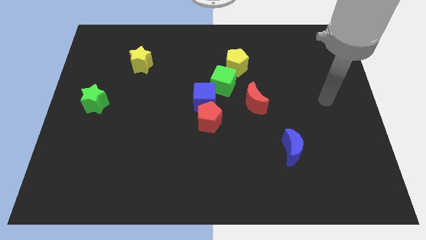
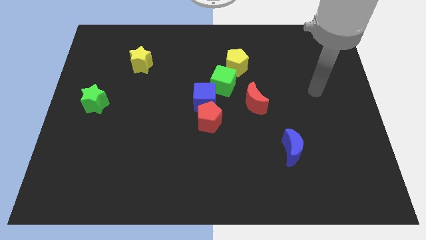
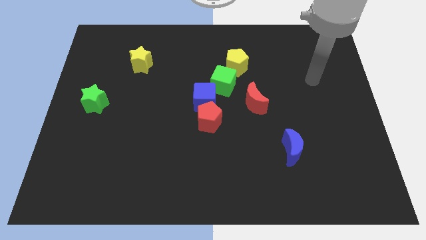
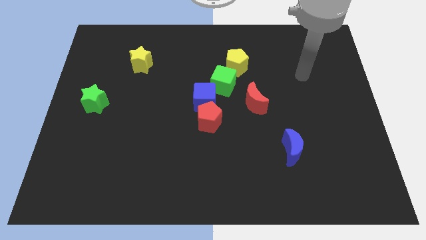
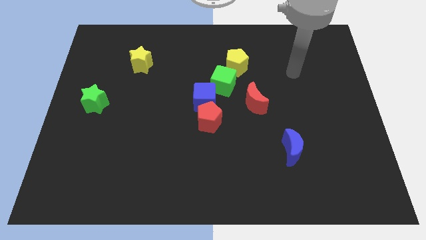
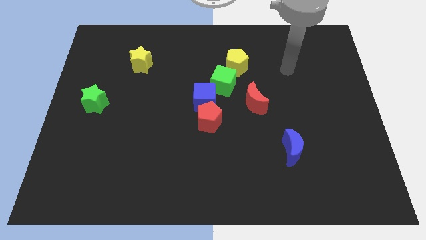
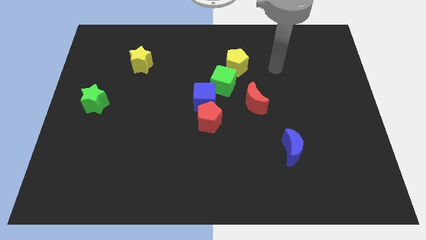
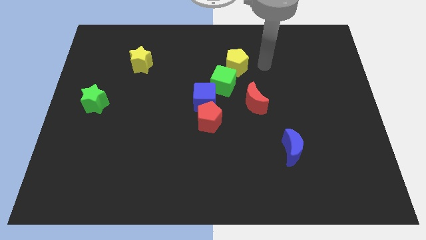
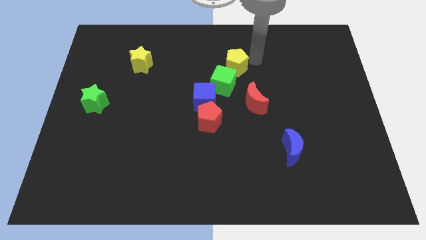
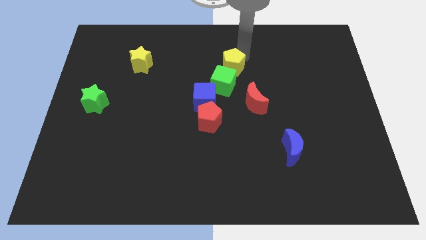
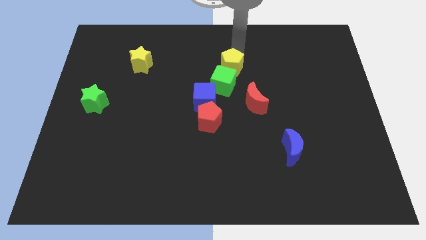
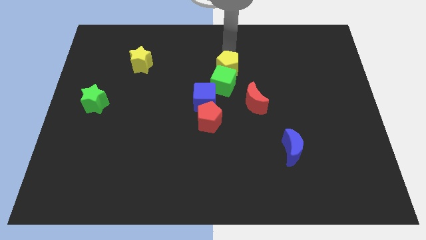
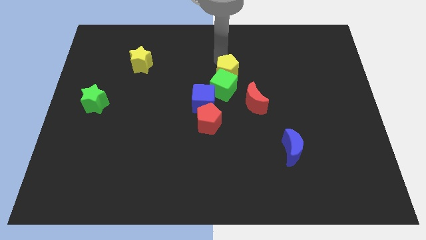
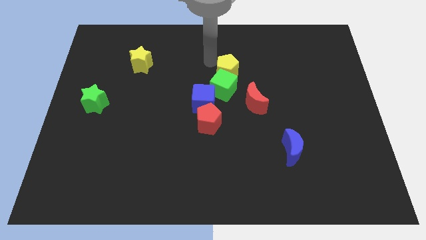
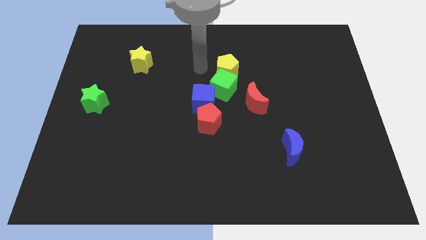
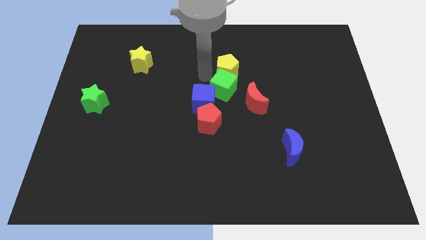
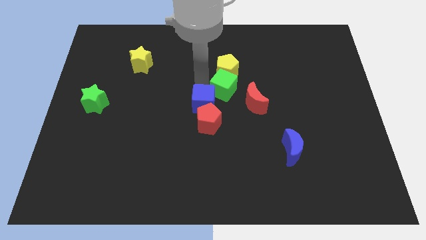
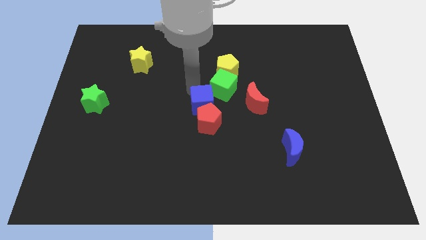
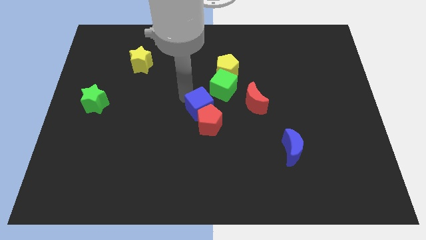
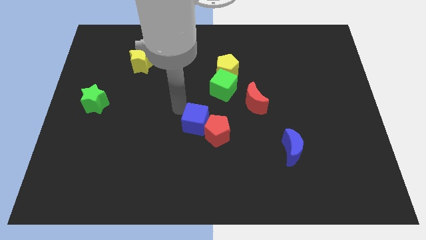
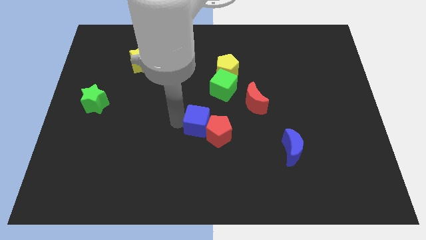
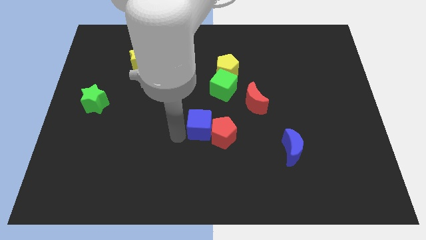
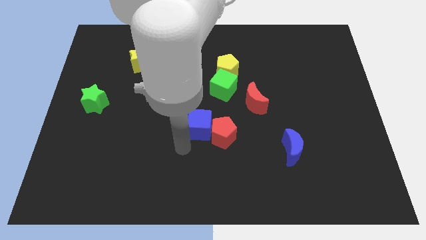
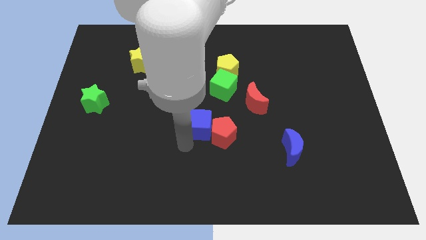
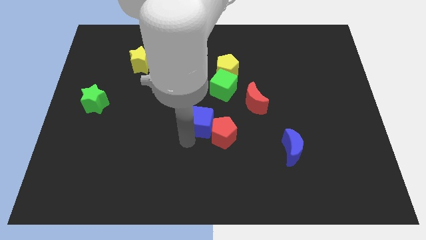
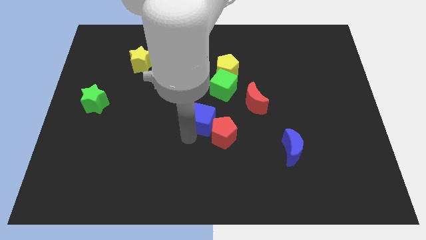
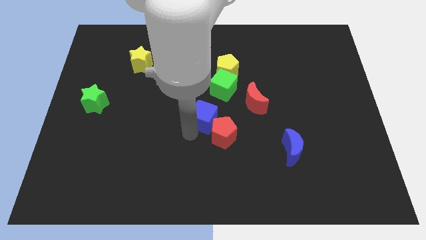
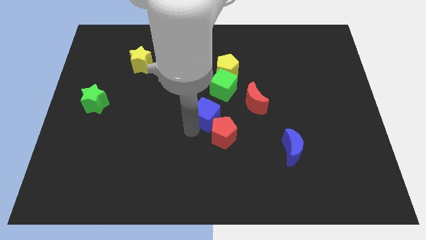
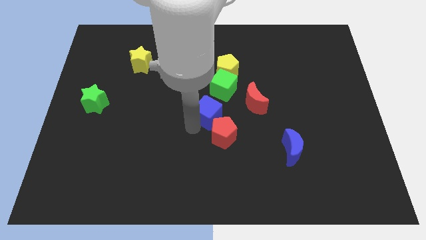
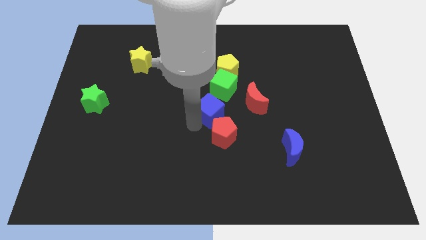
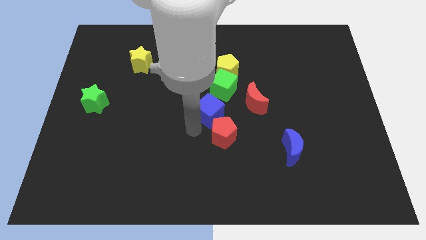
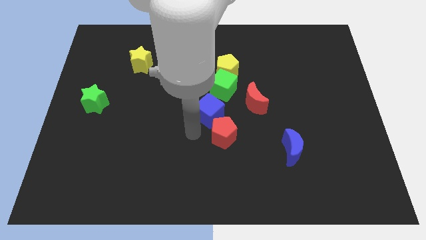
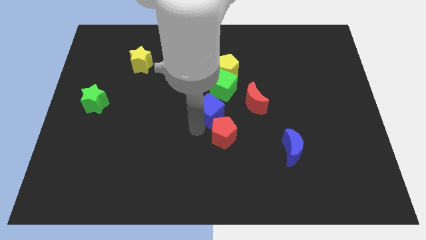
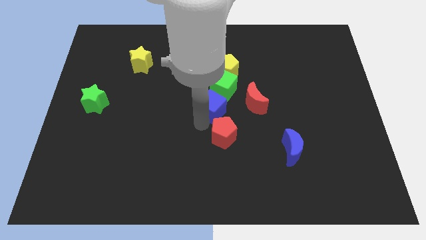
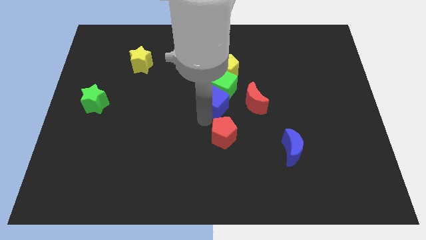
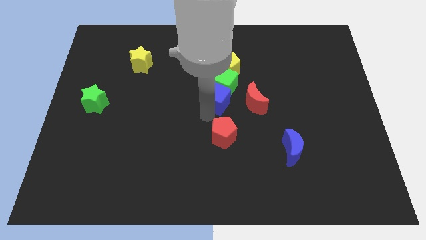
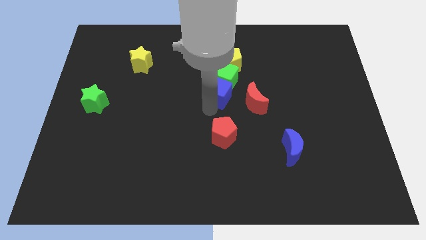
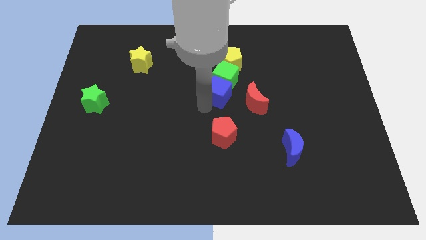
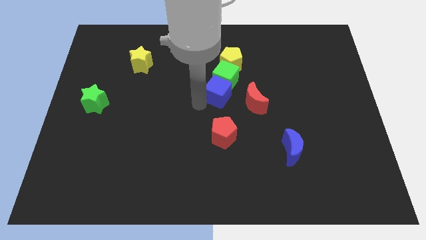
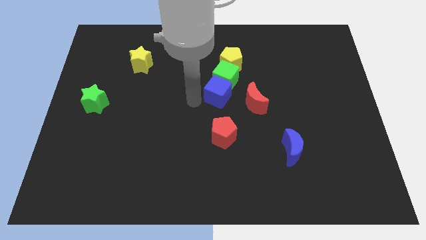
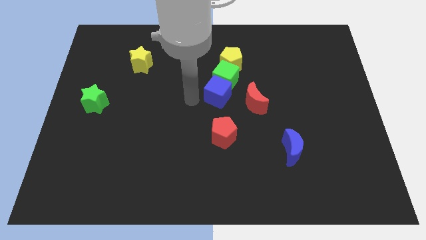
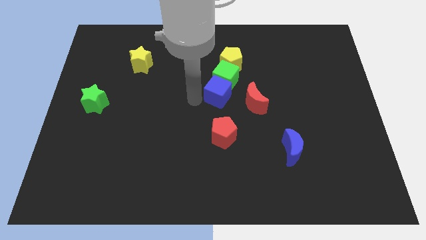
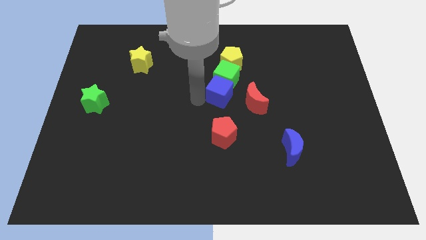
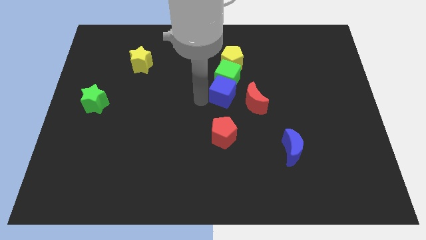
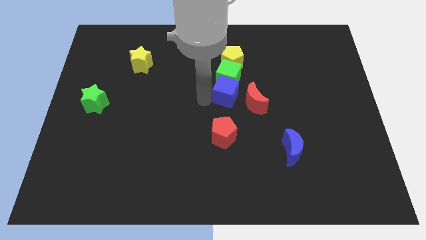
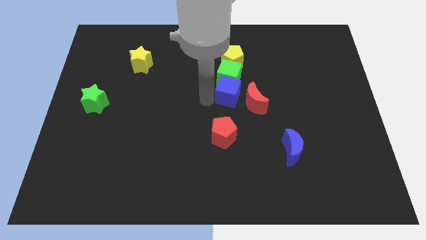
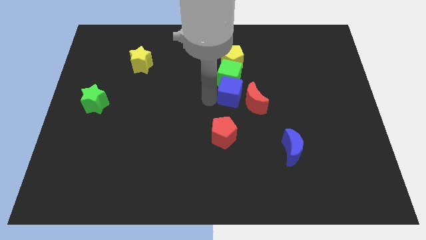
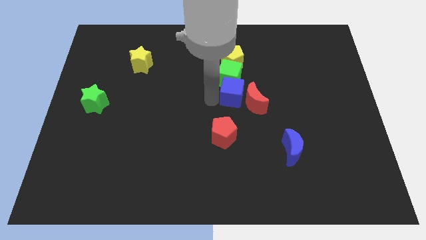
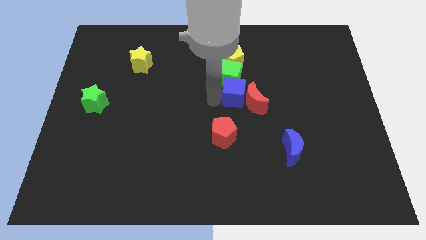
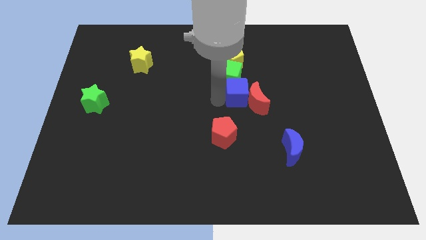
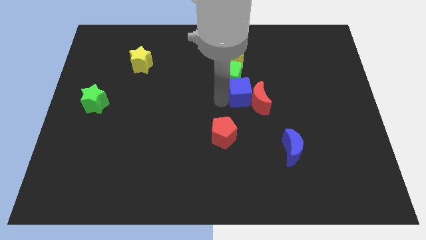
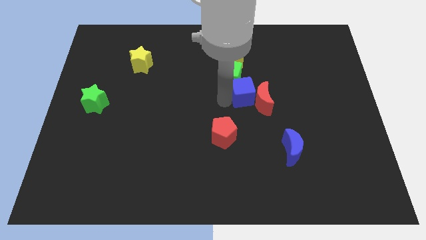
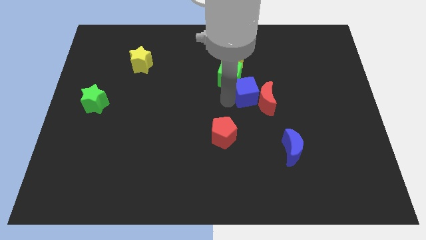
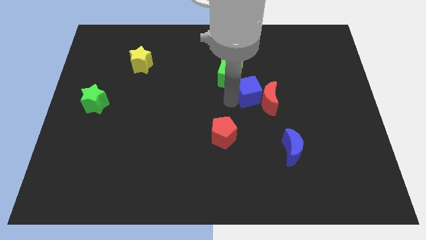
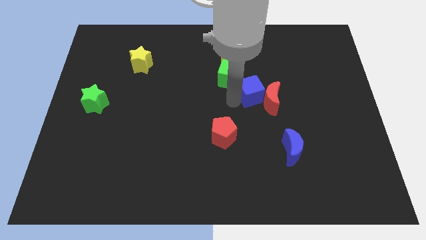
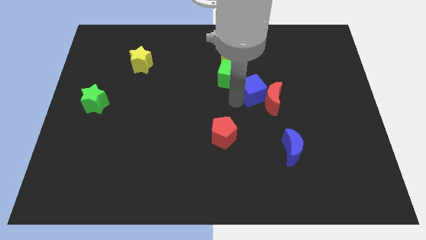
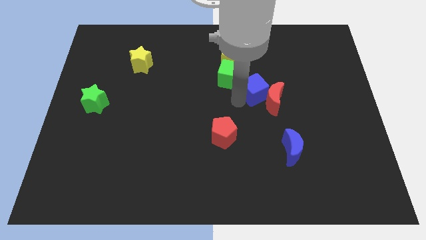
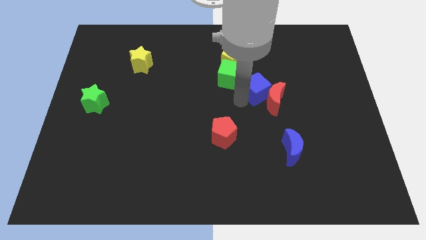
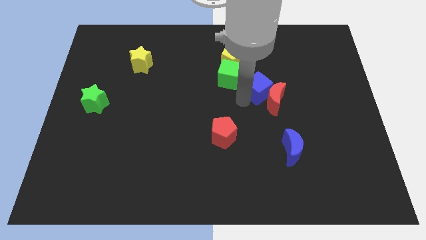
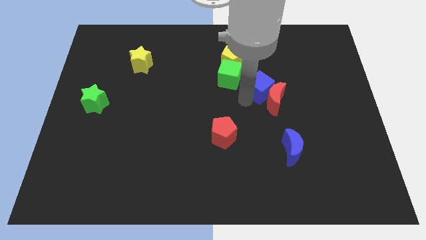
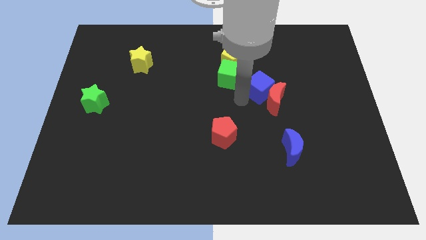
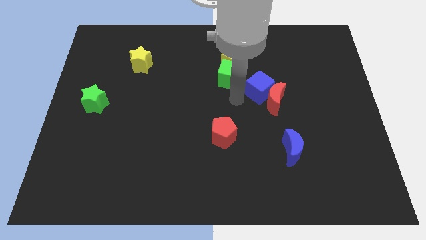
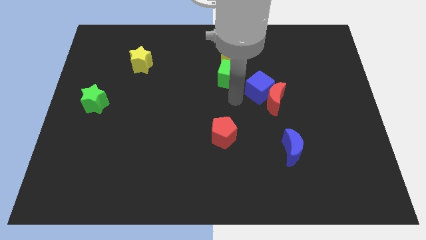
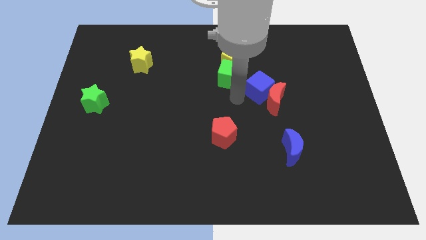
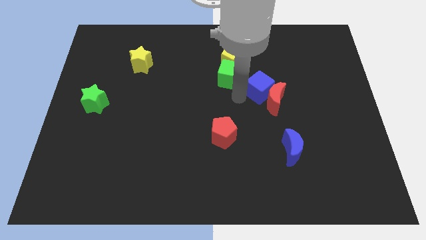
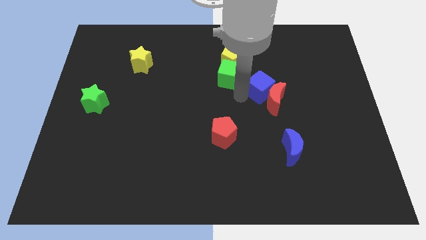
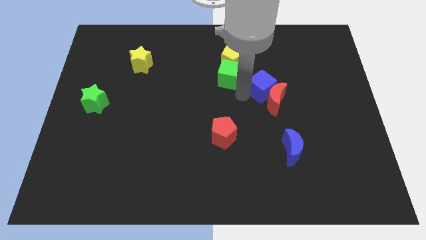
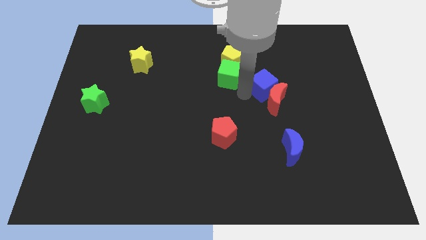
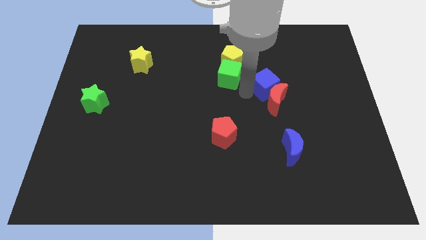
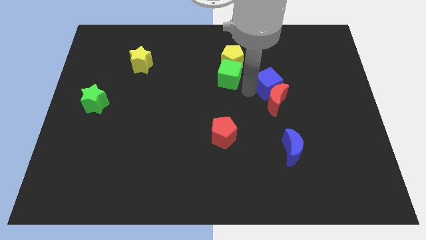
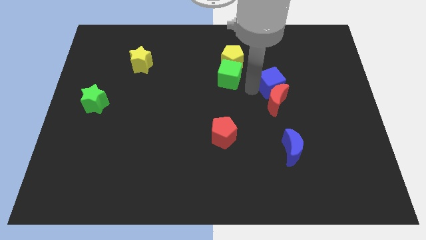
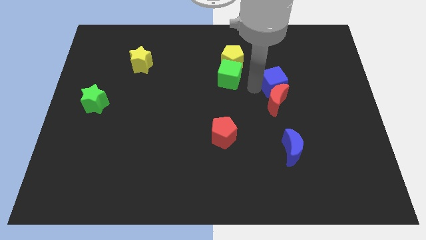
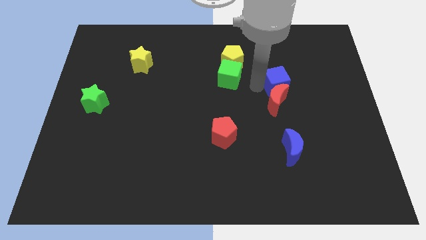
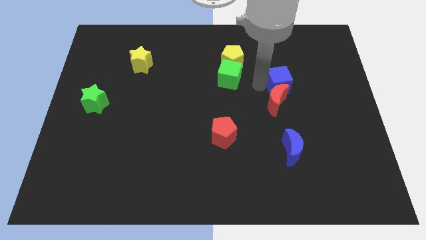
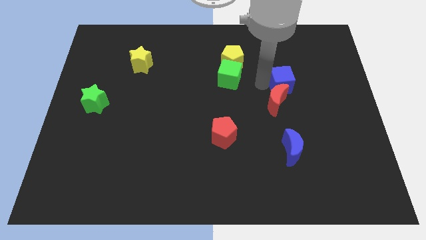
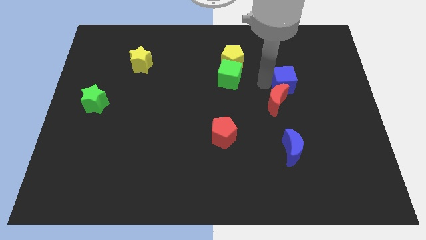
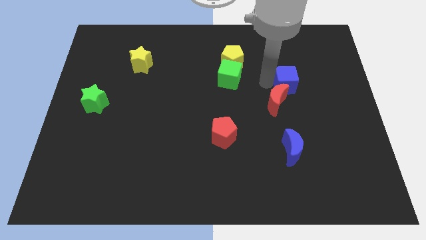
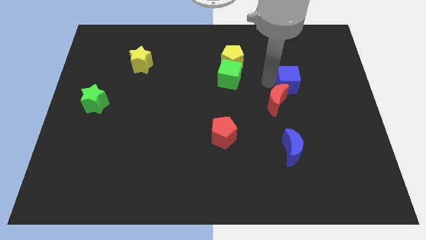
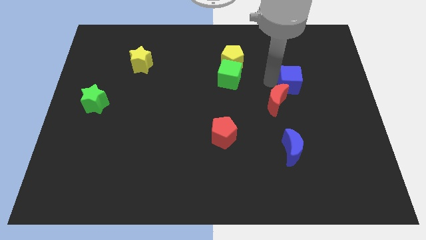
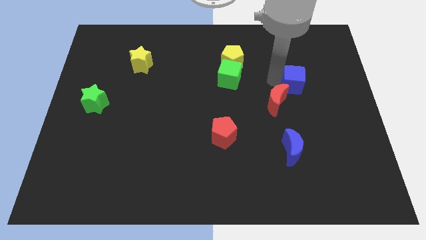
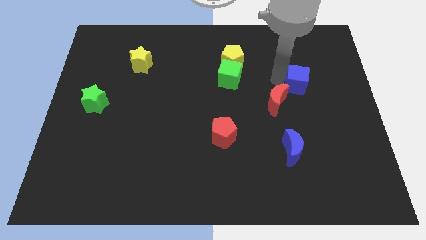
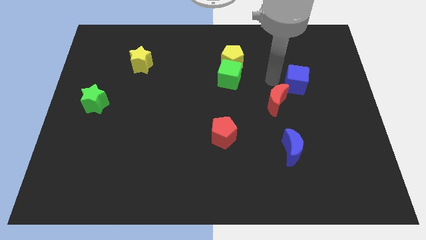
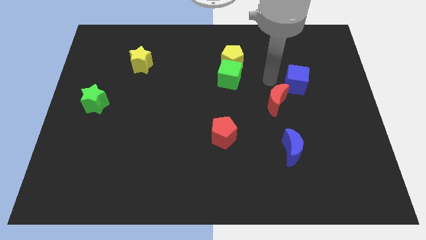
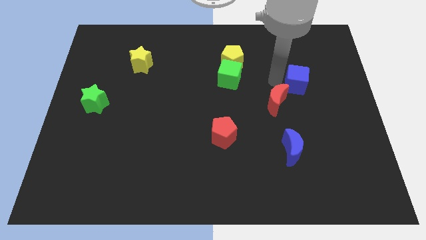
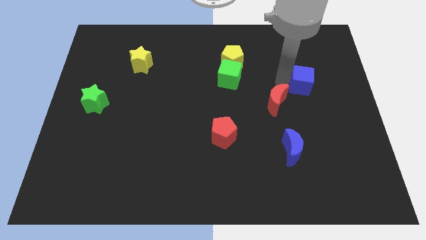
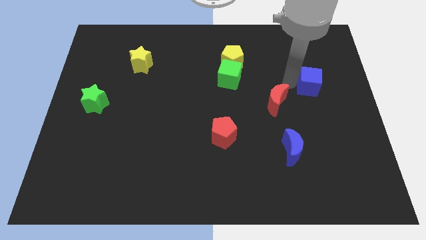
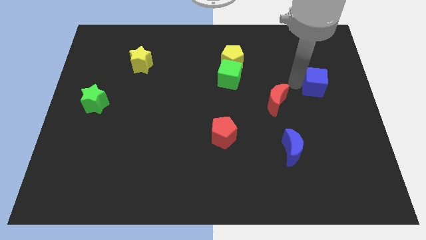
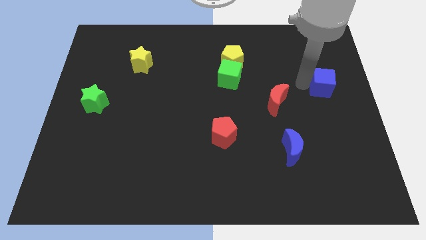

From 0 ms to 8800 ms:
push the blue cube to the center right
